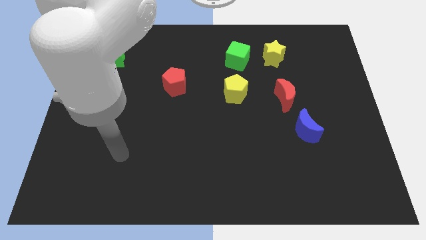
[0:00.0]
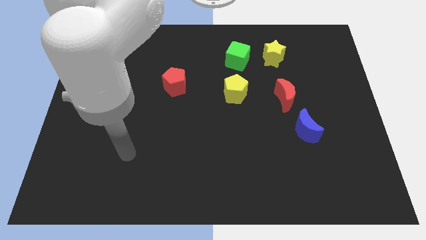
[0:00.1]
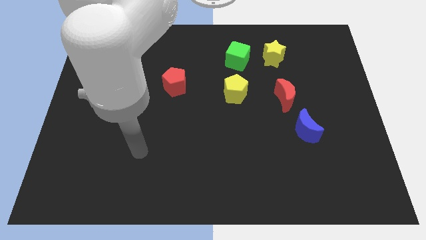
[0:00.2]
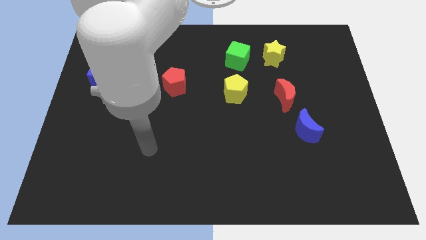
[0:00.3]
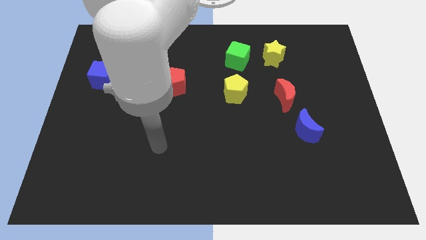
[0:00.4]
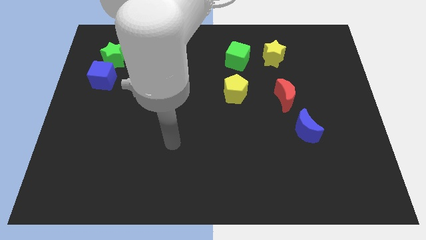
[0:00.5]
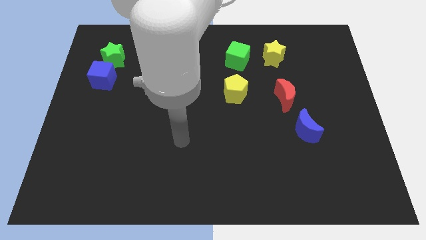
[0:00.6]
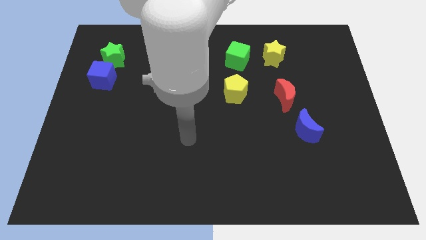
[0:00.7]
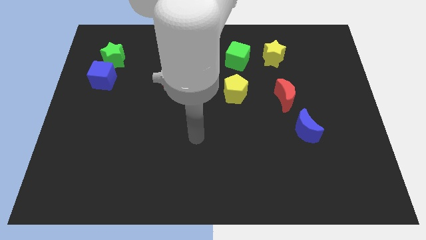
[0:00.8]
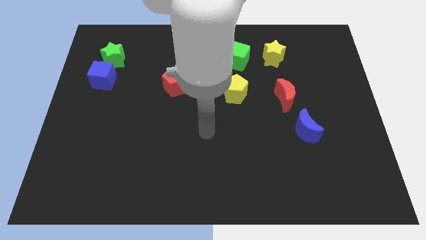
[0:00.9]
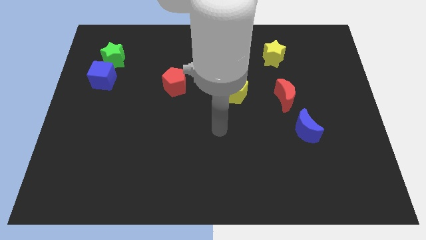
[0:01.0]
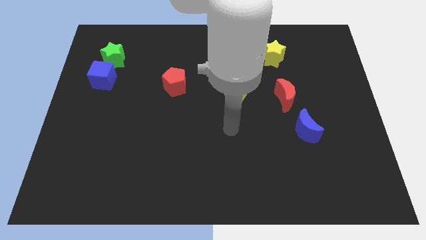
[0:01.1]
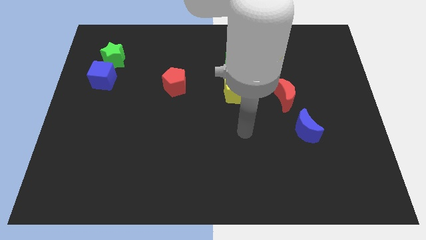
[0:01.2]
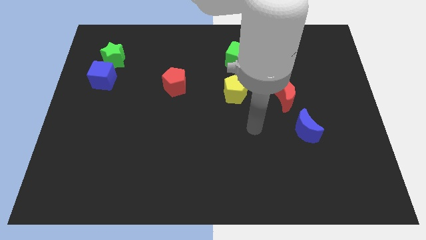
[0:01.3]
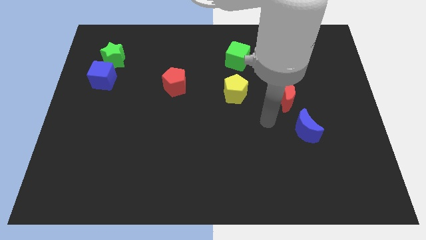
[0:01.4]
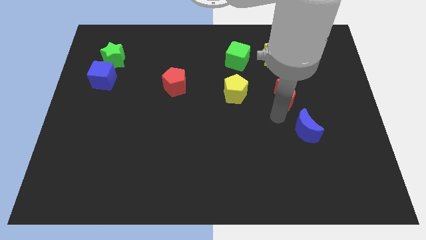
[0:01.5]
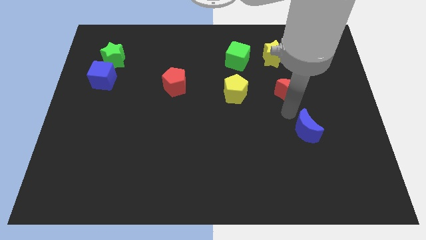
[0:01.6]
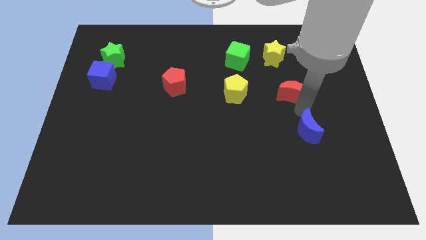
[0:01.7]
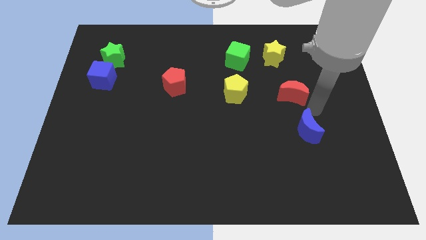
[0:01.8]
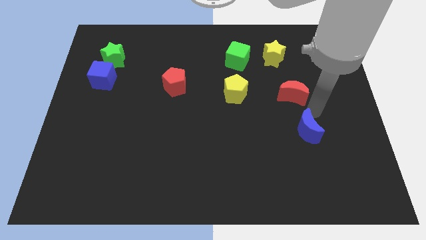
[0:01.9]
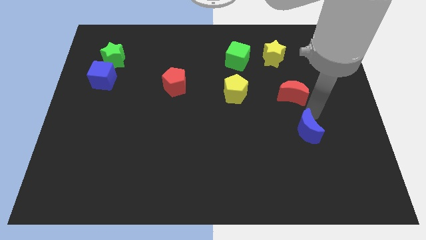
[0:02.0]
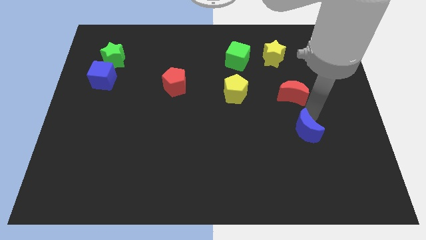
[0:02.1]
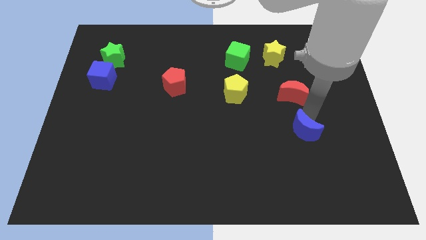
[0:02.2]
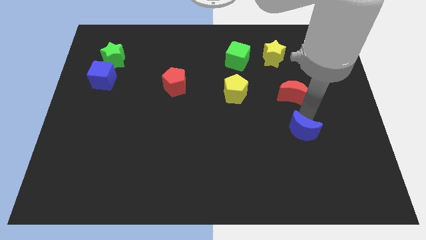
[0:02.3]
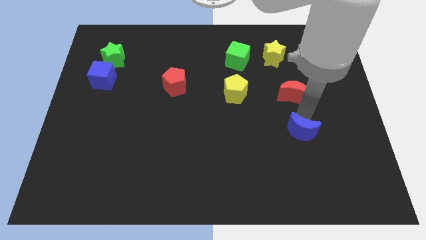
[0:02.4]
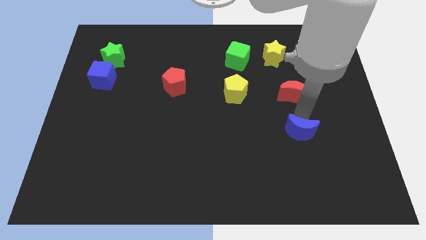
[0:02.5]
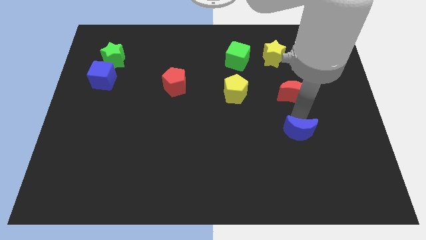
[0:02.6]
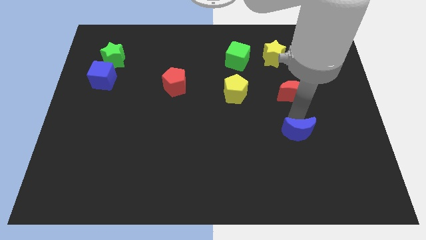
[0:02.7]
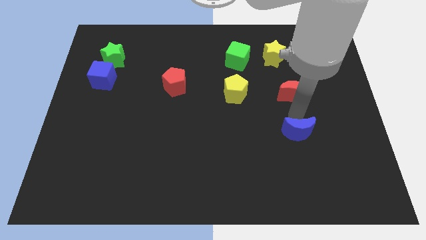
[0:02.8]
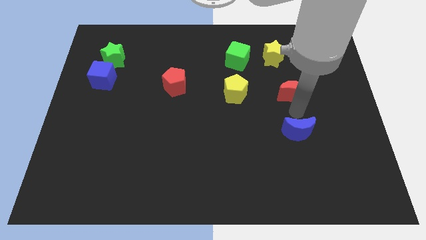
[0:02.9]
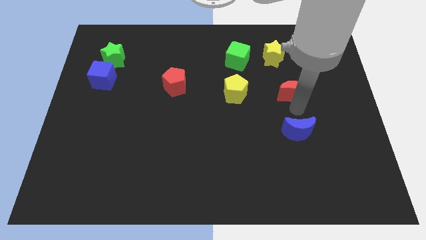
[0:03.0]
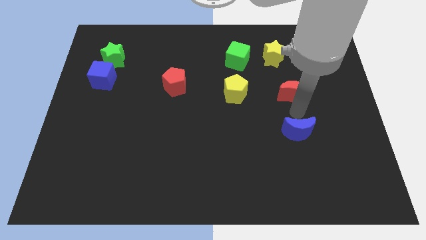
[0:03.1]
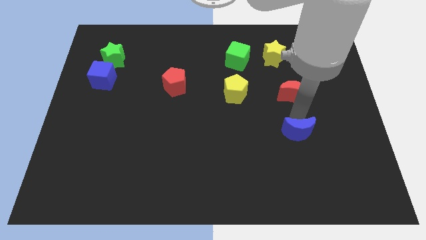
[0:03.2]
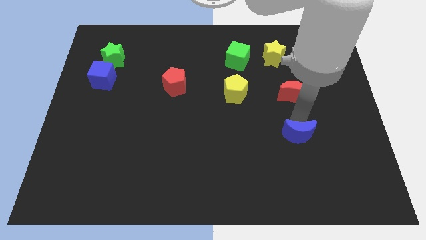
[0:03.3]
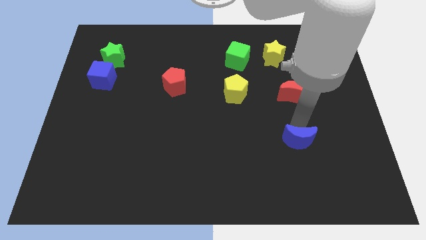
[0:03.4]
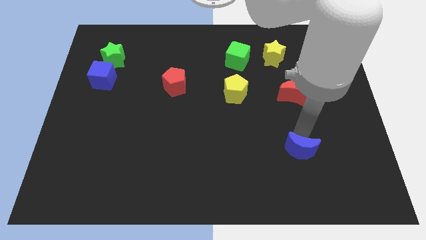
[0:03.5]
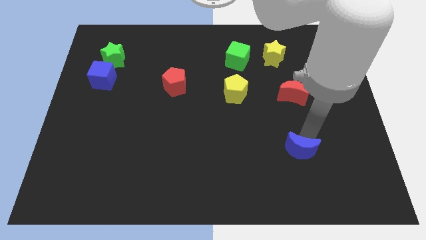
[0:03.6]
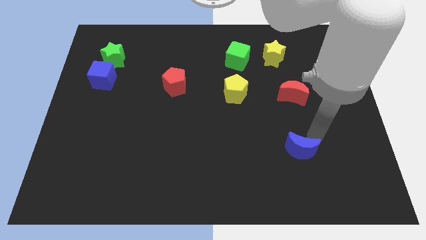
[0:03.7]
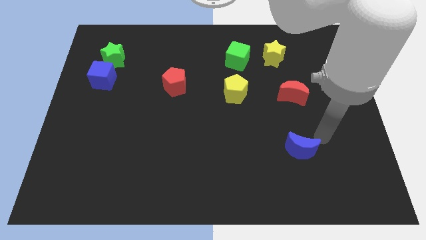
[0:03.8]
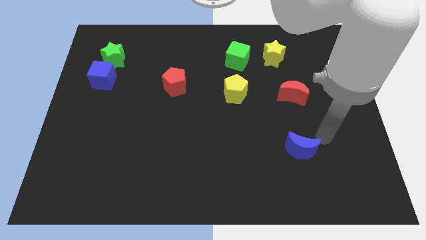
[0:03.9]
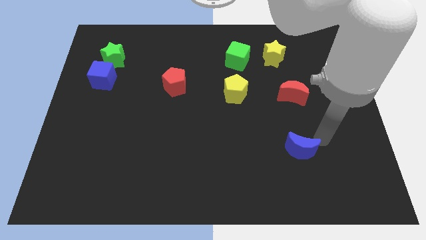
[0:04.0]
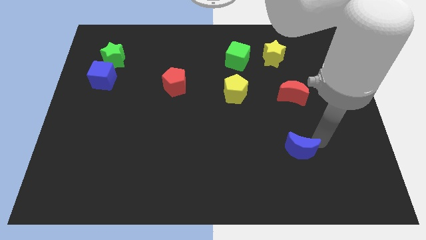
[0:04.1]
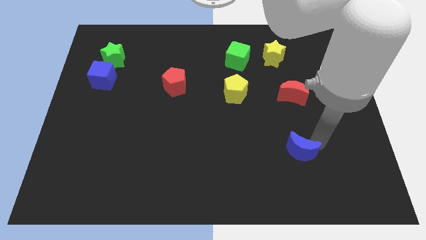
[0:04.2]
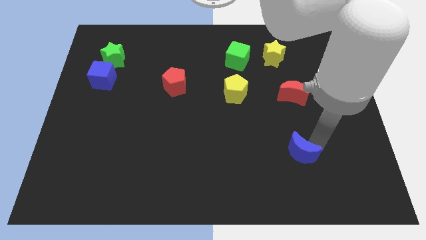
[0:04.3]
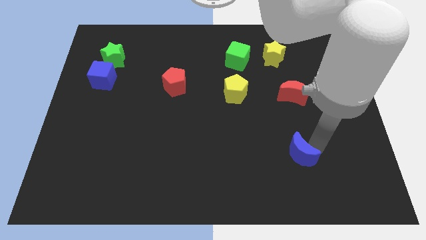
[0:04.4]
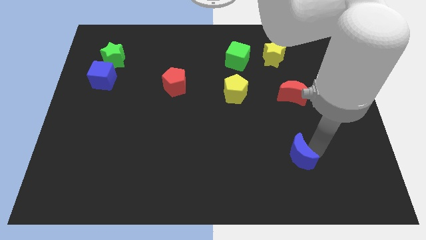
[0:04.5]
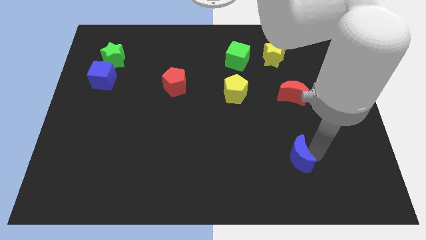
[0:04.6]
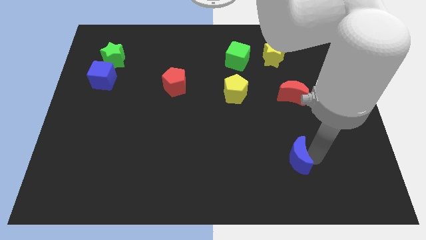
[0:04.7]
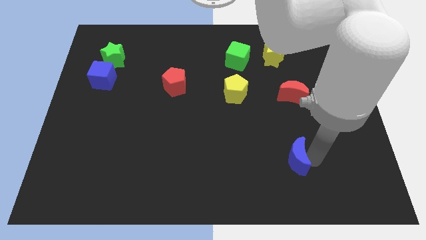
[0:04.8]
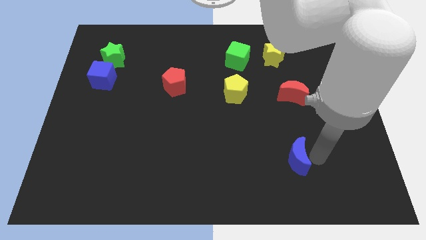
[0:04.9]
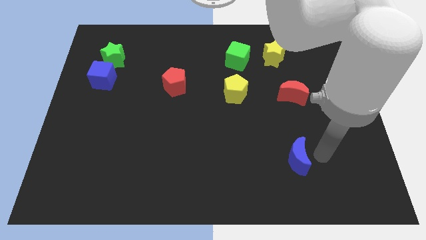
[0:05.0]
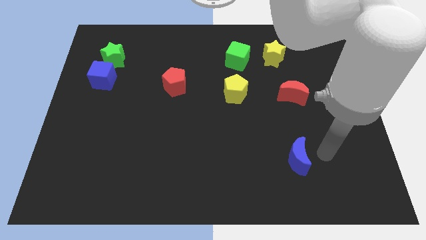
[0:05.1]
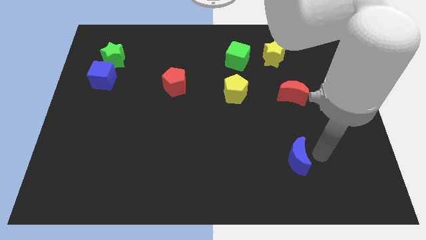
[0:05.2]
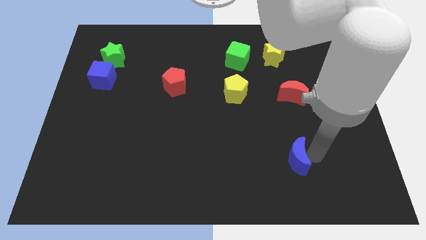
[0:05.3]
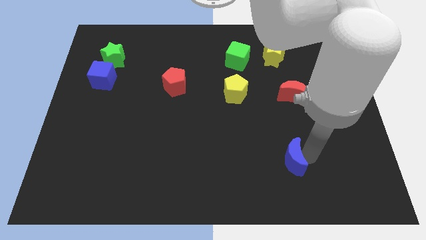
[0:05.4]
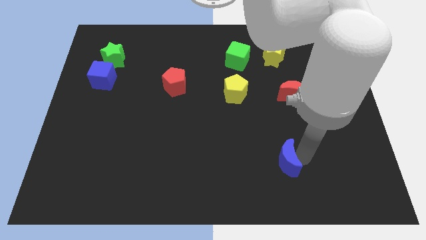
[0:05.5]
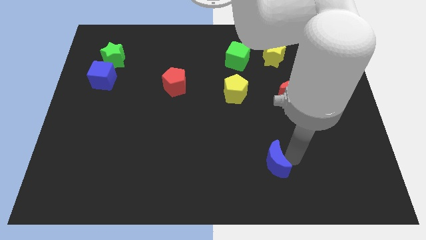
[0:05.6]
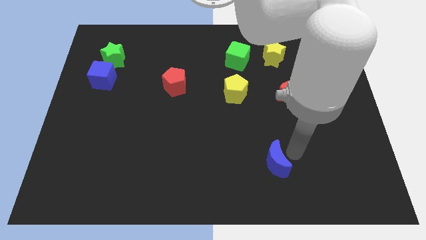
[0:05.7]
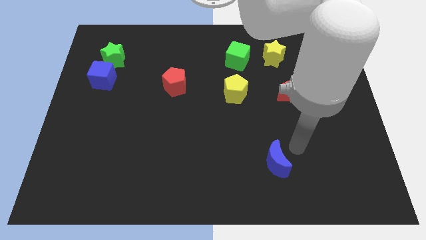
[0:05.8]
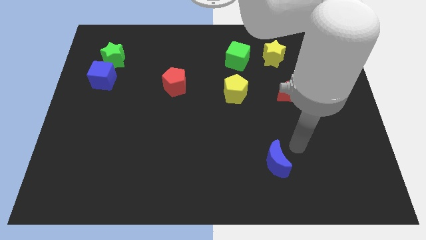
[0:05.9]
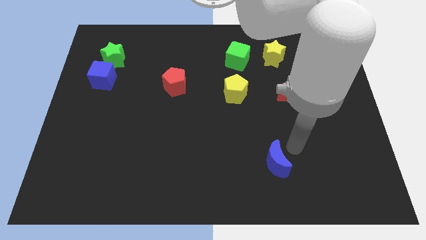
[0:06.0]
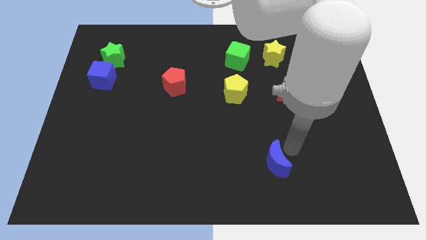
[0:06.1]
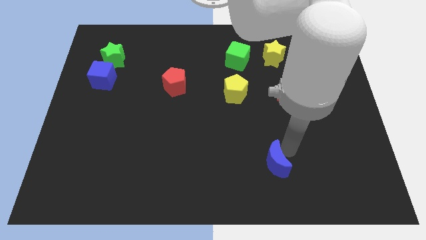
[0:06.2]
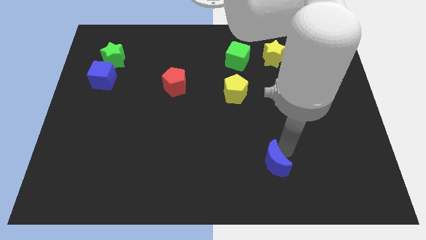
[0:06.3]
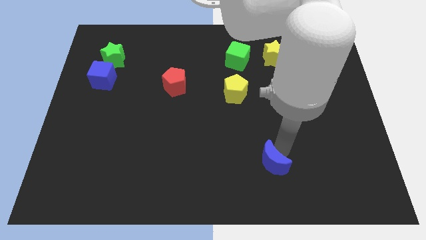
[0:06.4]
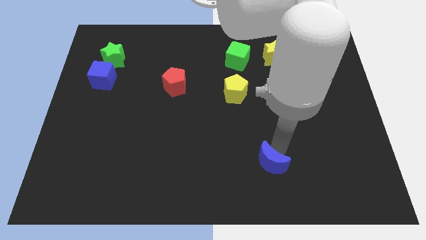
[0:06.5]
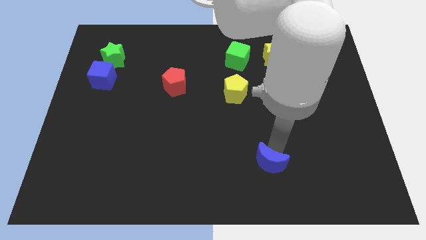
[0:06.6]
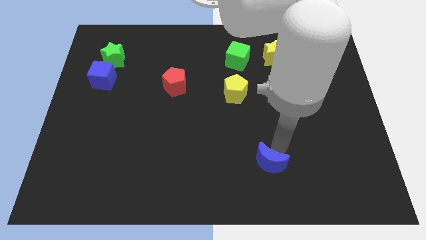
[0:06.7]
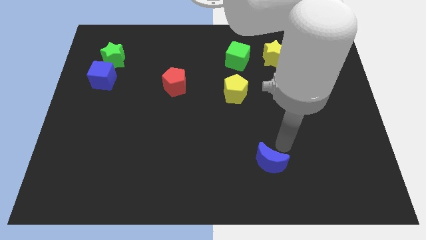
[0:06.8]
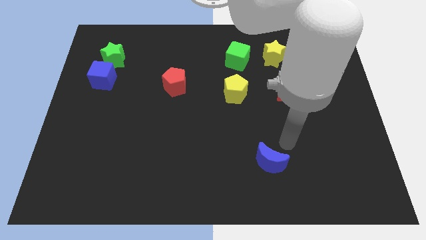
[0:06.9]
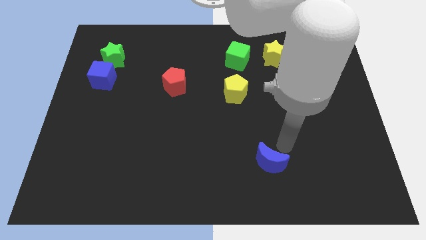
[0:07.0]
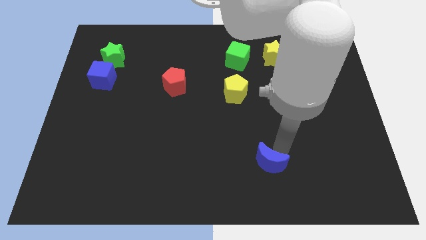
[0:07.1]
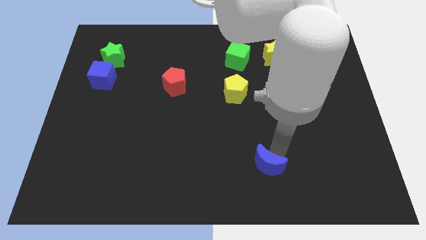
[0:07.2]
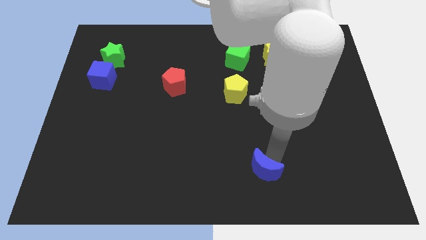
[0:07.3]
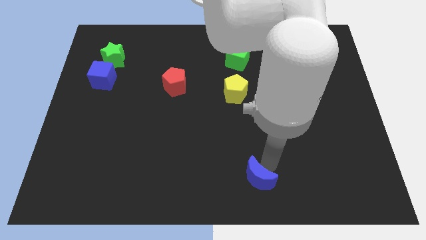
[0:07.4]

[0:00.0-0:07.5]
slide the blue moon to the bottom side

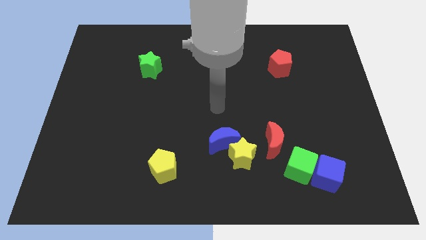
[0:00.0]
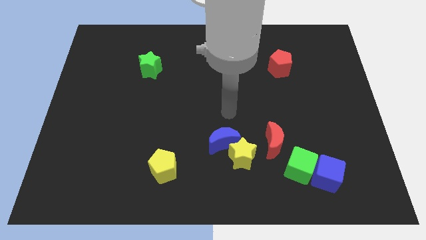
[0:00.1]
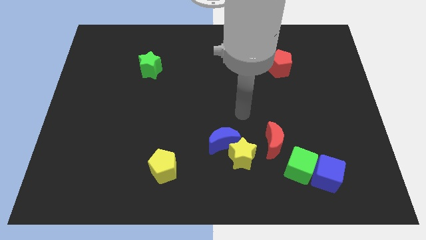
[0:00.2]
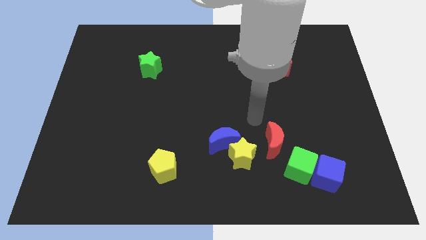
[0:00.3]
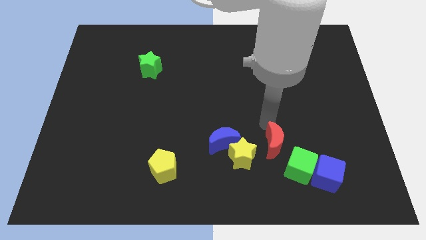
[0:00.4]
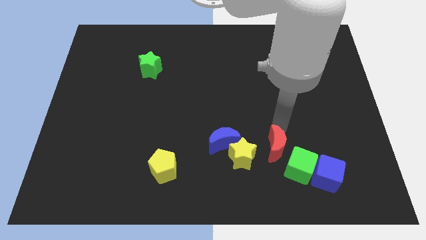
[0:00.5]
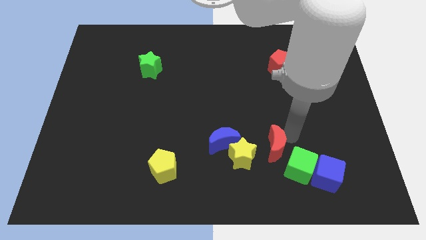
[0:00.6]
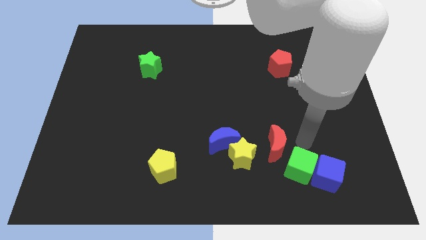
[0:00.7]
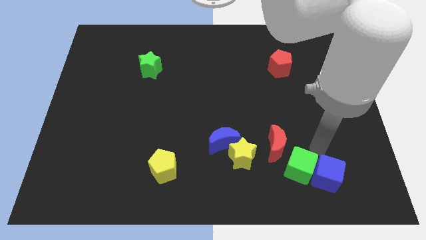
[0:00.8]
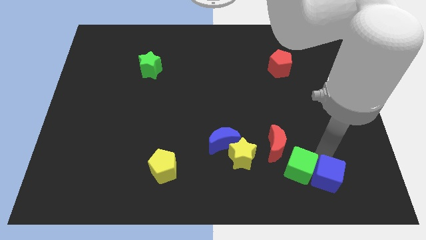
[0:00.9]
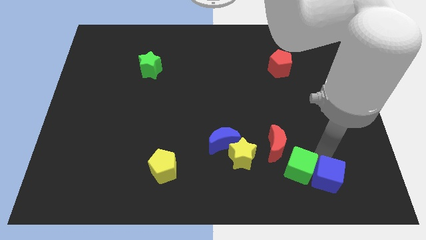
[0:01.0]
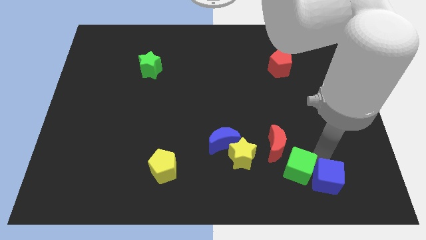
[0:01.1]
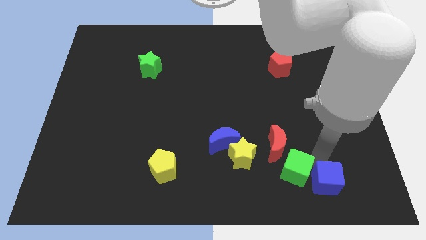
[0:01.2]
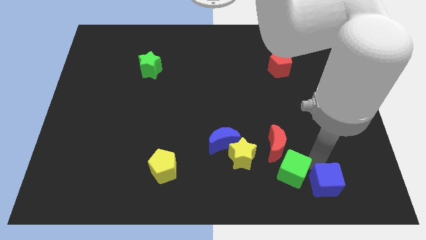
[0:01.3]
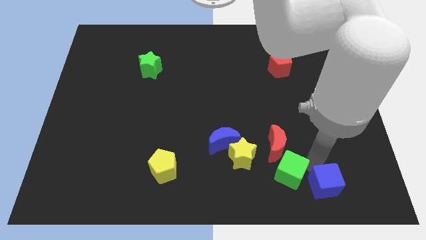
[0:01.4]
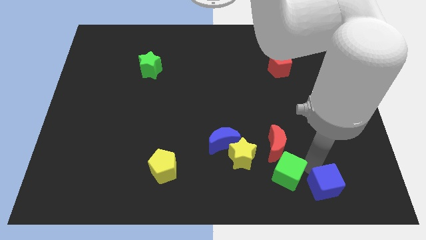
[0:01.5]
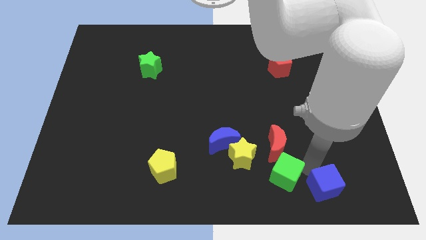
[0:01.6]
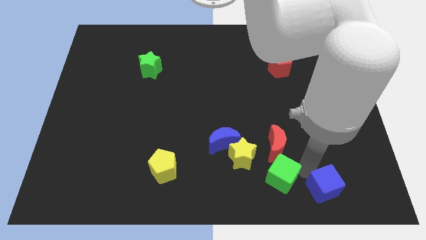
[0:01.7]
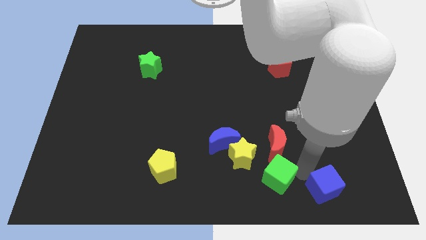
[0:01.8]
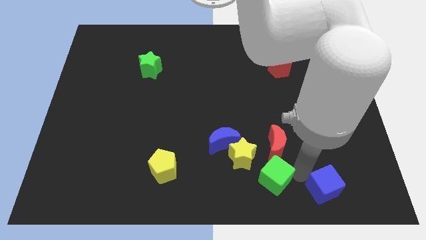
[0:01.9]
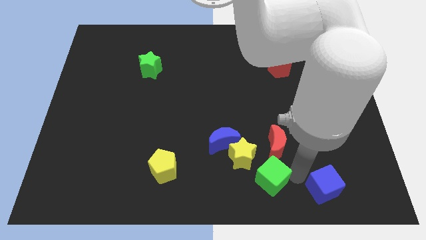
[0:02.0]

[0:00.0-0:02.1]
push the green cube to the bottom
